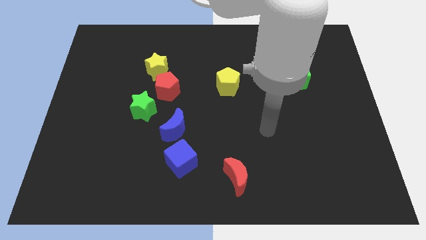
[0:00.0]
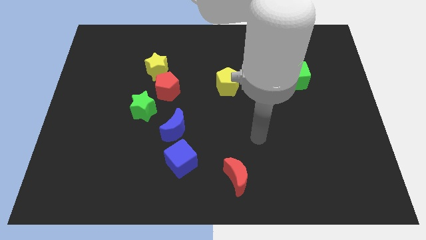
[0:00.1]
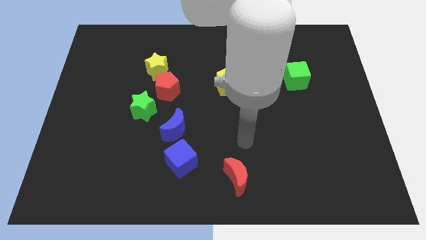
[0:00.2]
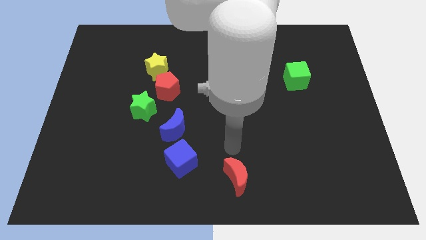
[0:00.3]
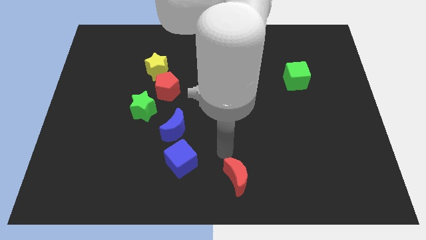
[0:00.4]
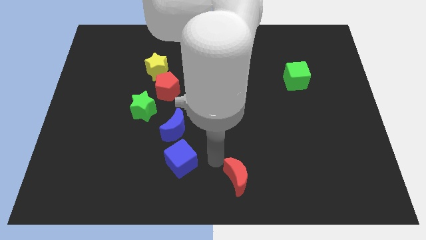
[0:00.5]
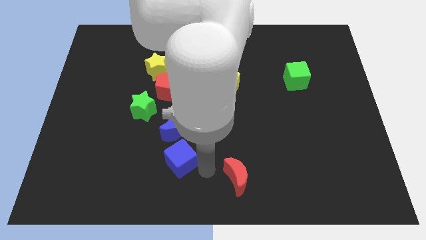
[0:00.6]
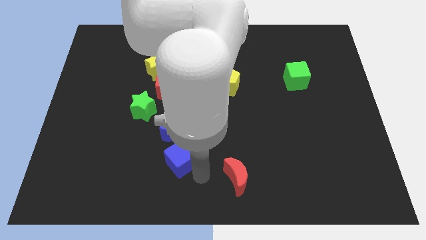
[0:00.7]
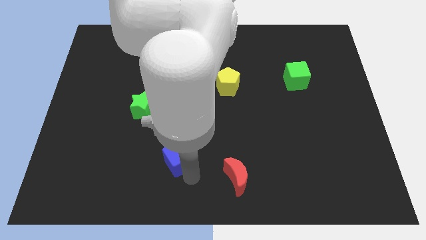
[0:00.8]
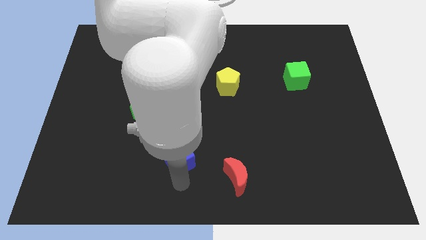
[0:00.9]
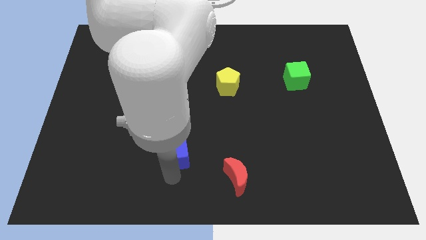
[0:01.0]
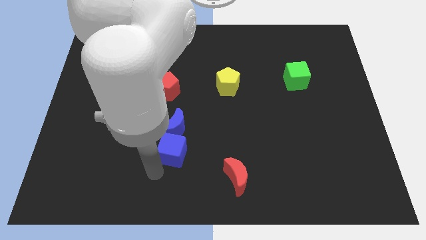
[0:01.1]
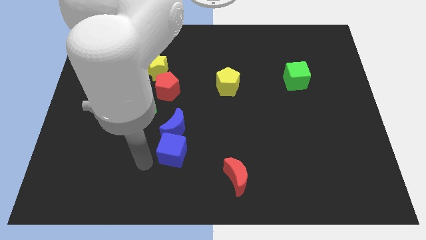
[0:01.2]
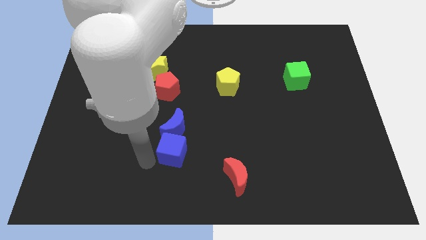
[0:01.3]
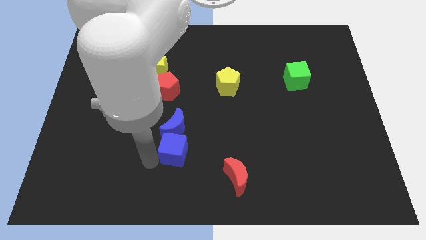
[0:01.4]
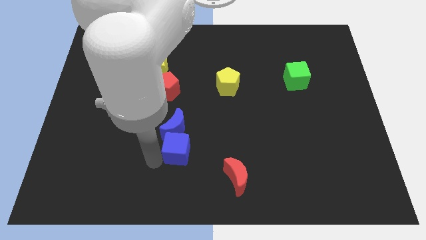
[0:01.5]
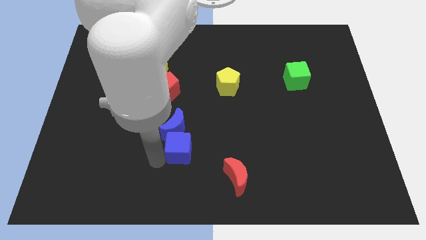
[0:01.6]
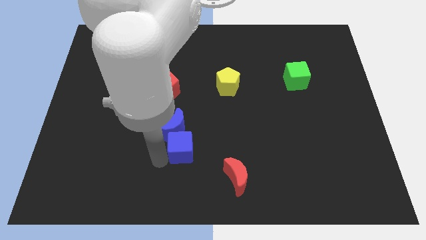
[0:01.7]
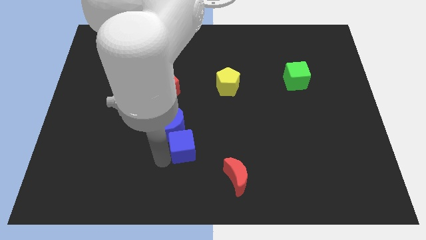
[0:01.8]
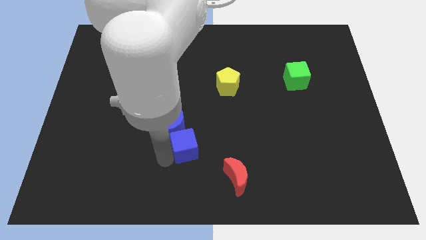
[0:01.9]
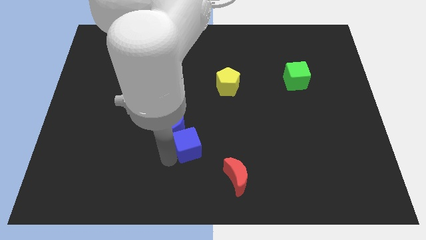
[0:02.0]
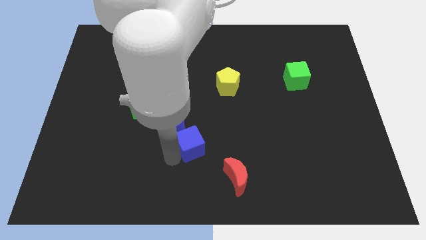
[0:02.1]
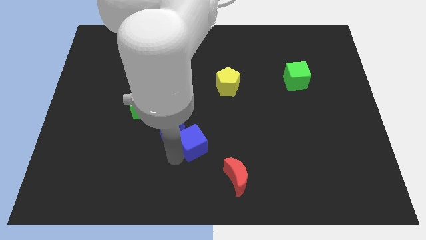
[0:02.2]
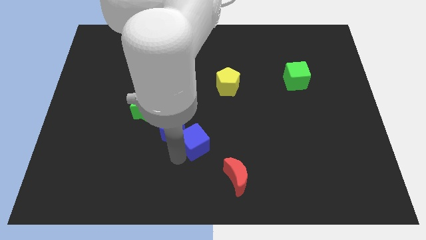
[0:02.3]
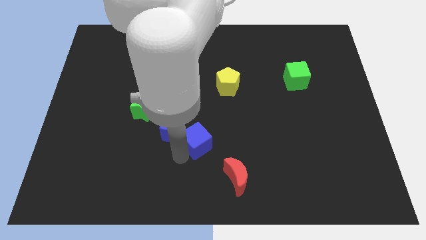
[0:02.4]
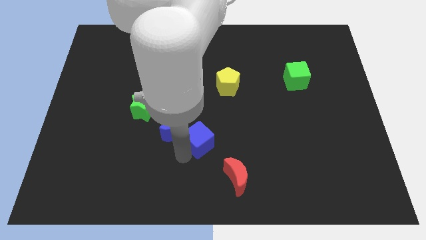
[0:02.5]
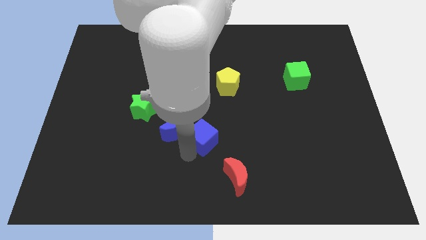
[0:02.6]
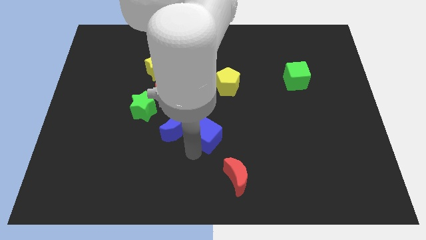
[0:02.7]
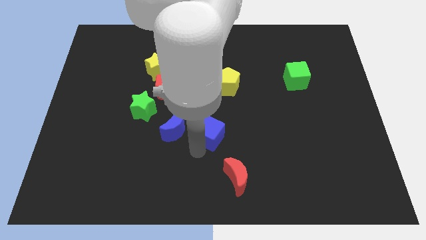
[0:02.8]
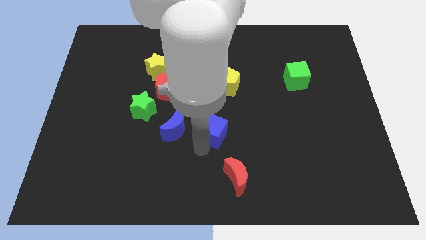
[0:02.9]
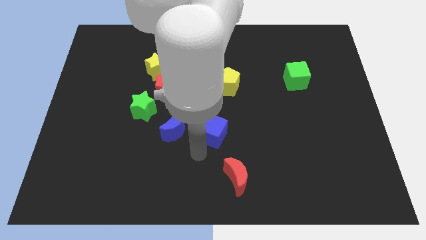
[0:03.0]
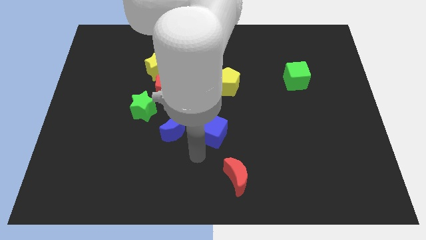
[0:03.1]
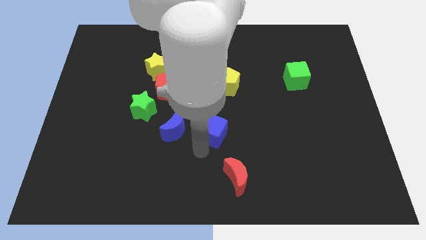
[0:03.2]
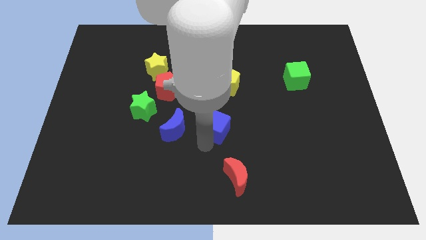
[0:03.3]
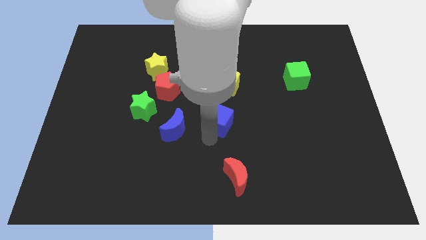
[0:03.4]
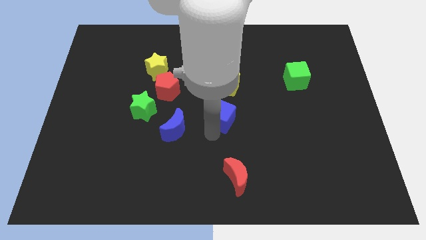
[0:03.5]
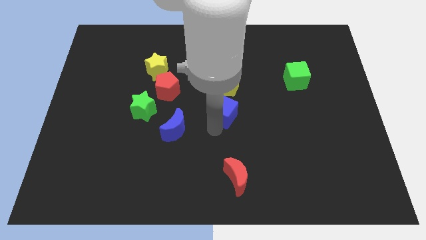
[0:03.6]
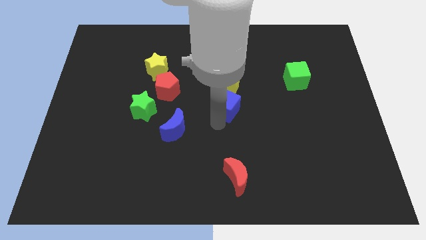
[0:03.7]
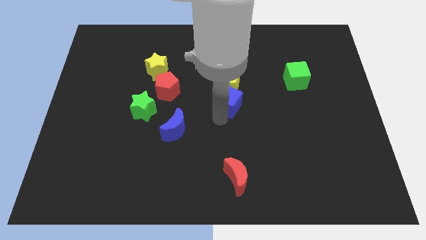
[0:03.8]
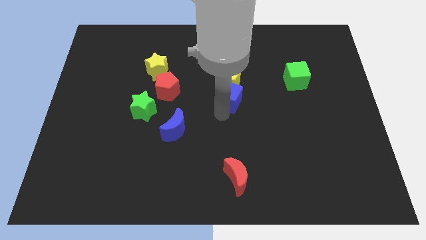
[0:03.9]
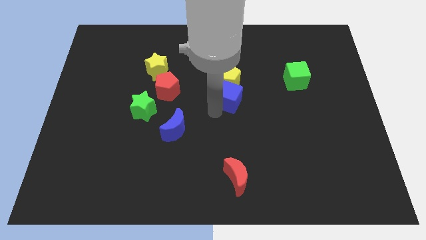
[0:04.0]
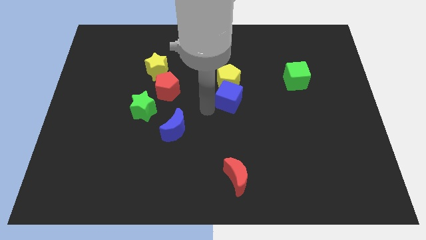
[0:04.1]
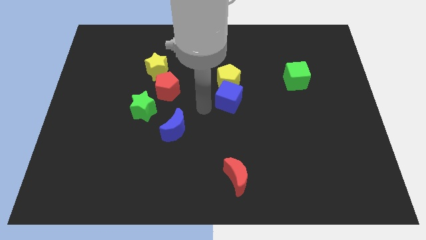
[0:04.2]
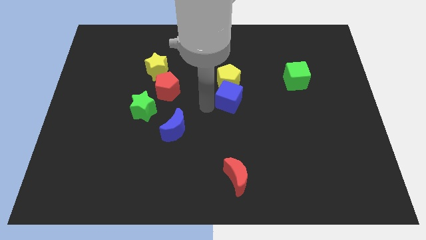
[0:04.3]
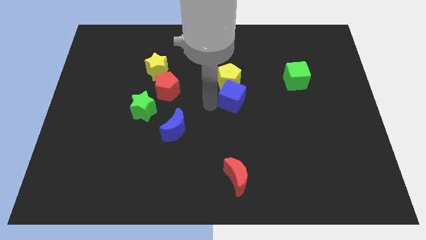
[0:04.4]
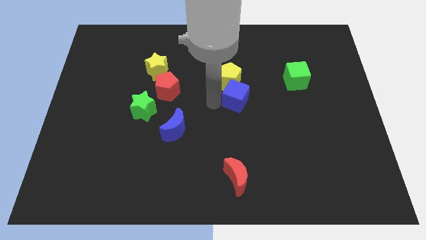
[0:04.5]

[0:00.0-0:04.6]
push the blue cube diagonally upwards and to the right

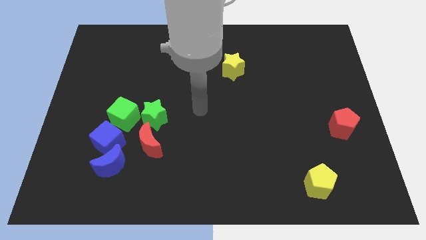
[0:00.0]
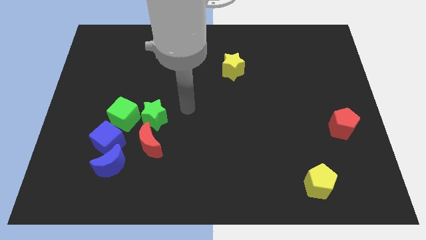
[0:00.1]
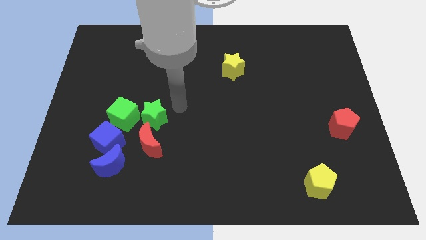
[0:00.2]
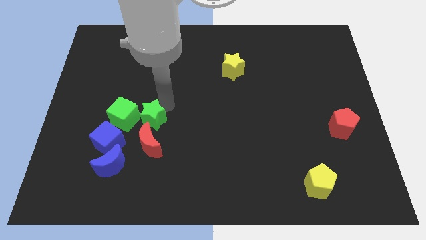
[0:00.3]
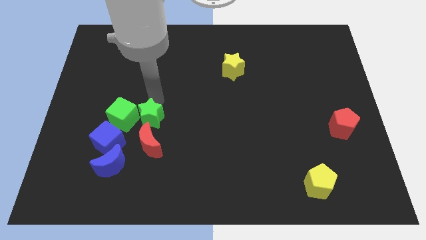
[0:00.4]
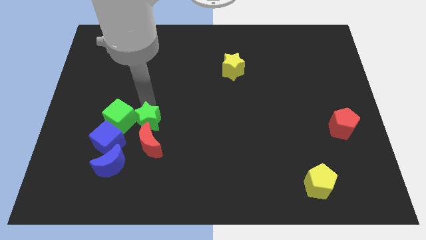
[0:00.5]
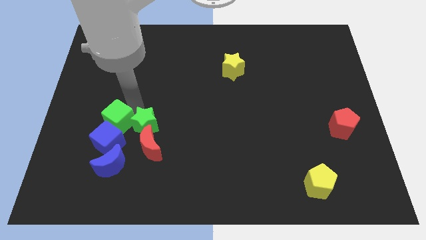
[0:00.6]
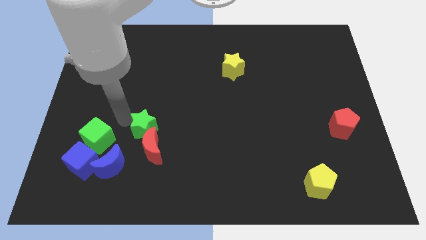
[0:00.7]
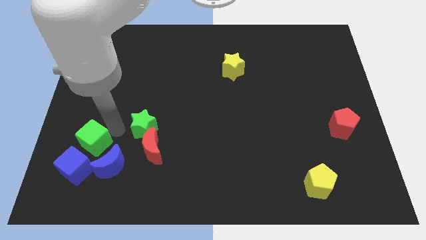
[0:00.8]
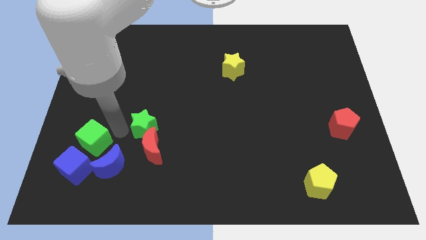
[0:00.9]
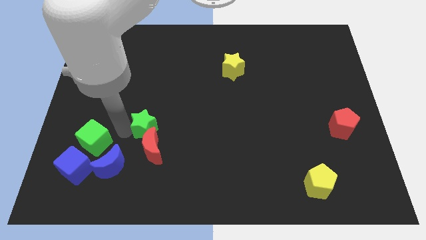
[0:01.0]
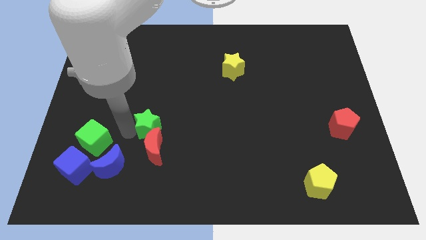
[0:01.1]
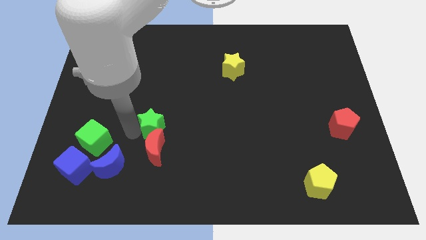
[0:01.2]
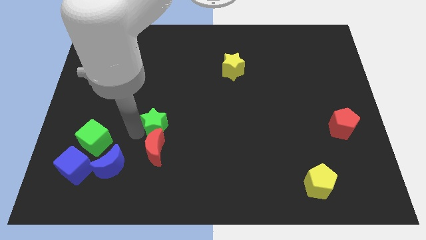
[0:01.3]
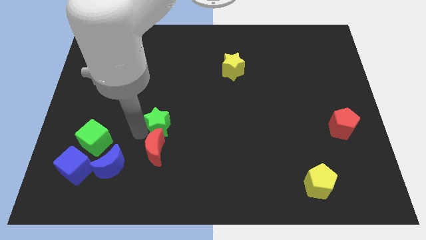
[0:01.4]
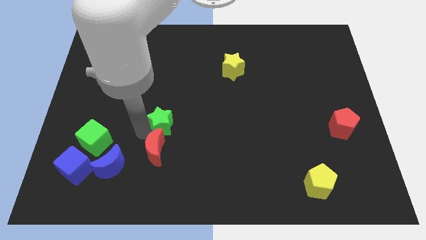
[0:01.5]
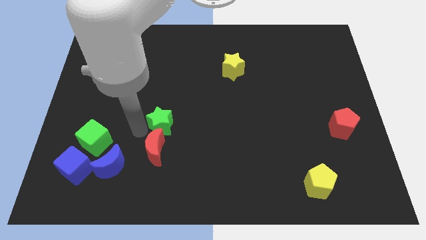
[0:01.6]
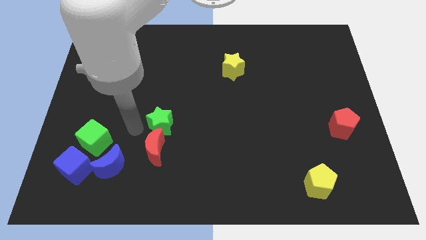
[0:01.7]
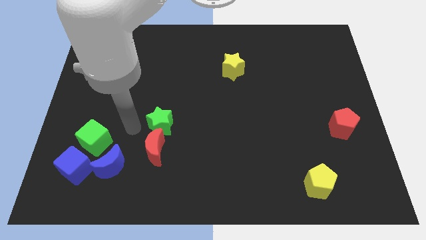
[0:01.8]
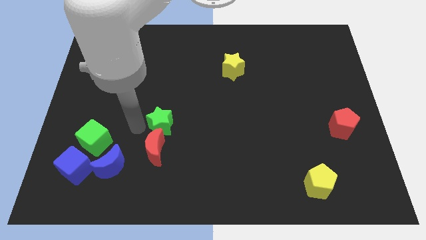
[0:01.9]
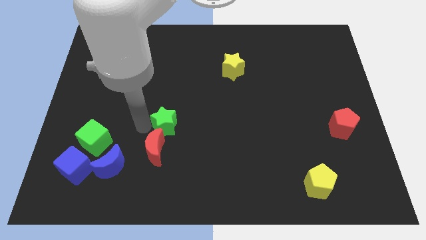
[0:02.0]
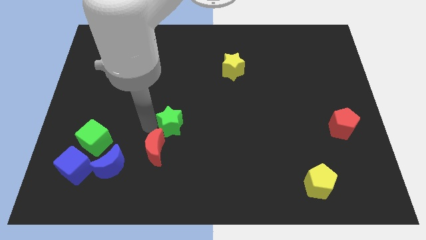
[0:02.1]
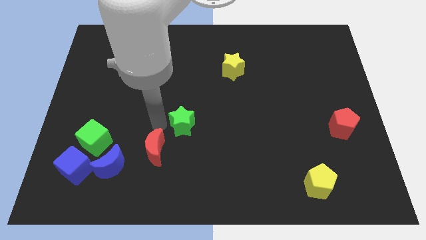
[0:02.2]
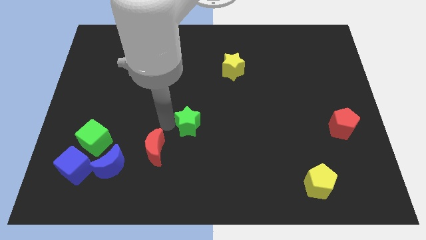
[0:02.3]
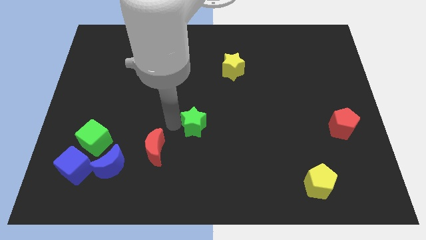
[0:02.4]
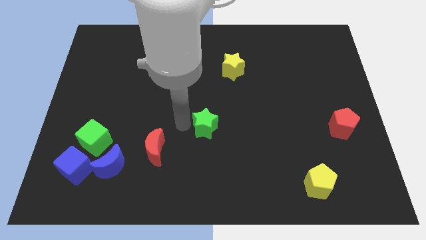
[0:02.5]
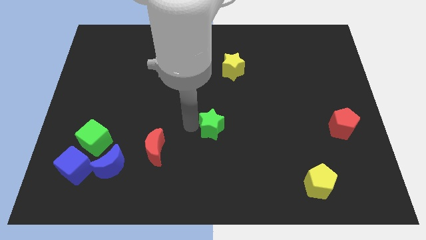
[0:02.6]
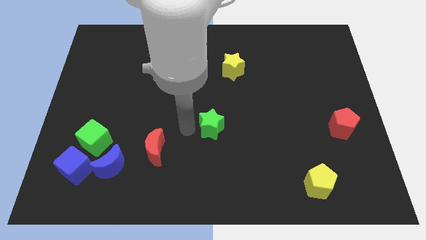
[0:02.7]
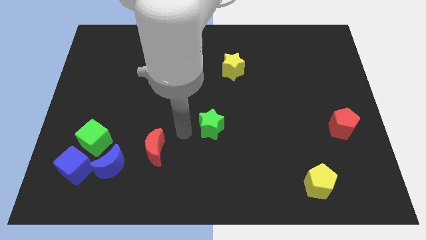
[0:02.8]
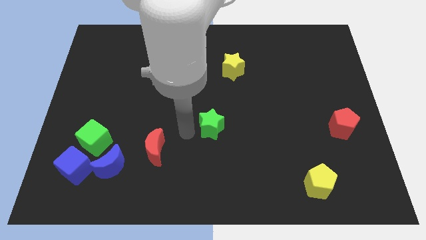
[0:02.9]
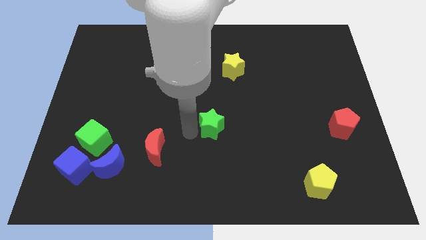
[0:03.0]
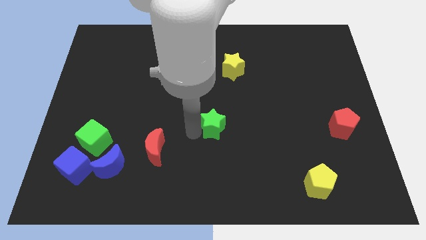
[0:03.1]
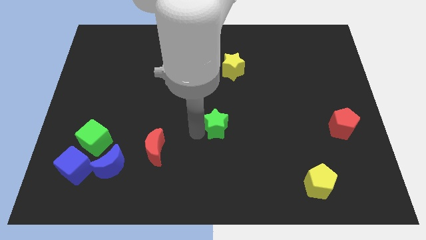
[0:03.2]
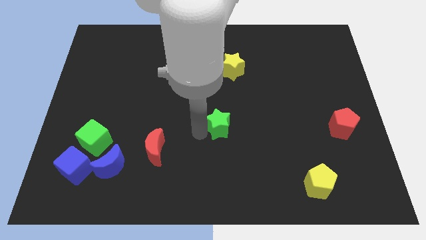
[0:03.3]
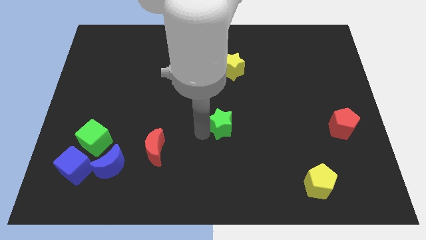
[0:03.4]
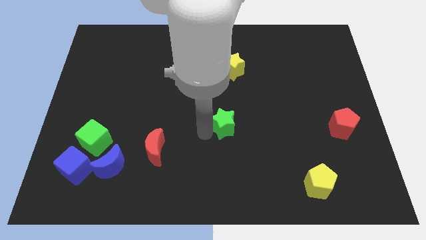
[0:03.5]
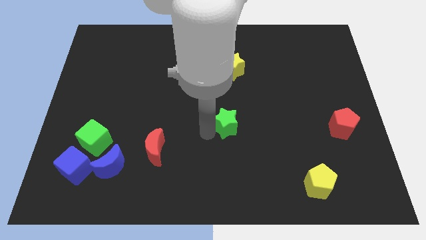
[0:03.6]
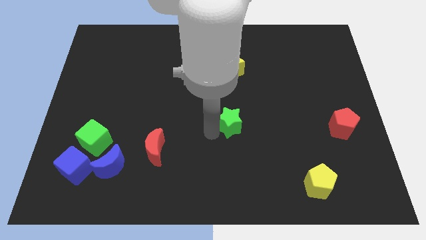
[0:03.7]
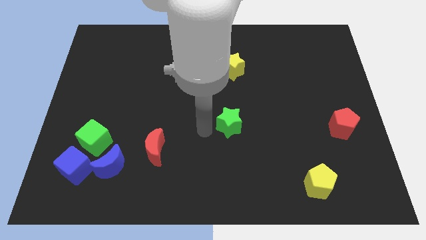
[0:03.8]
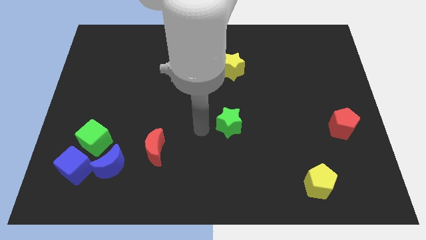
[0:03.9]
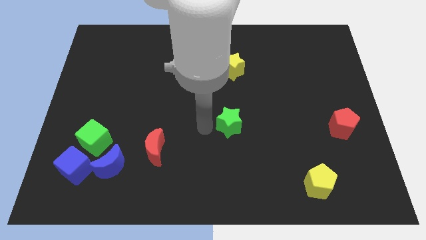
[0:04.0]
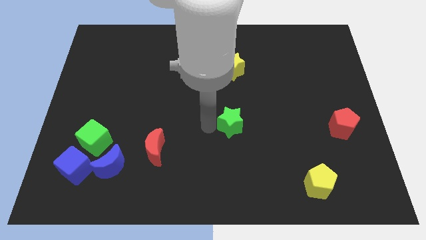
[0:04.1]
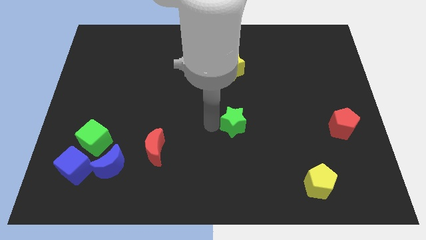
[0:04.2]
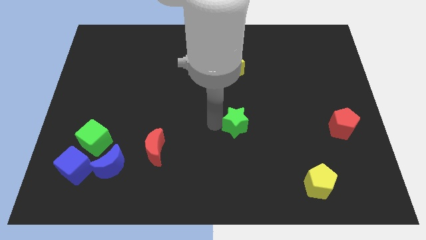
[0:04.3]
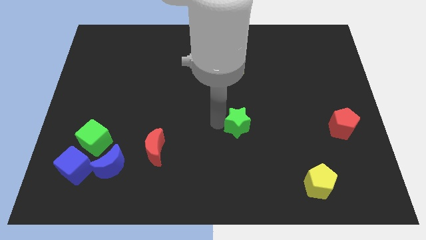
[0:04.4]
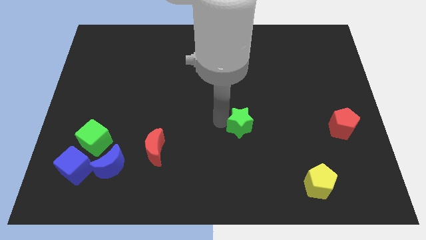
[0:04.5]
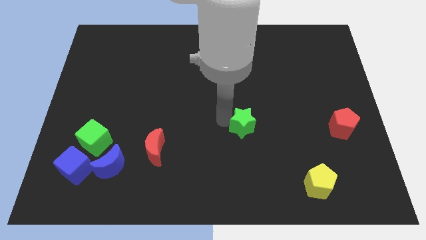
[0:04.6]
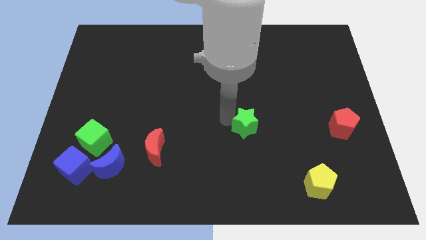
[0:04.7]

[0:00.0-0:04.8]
push the green star to the right
